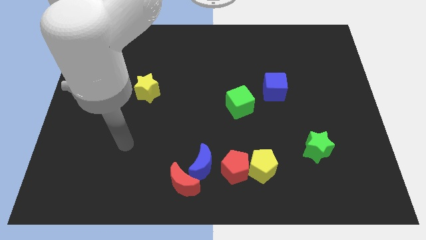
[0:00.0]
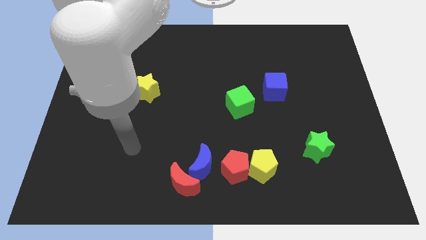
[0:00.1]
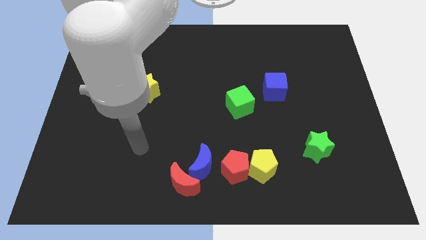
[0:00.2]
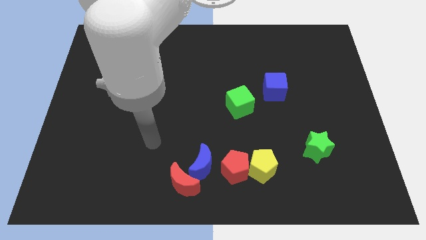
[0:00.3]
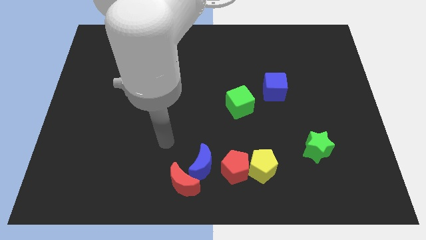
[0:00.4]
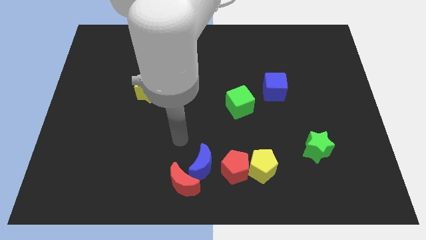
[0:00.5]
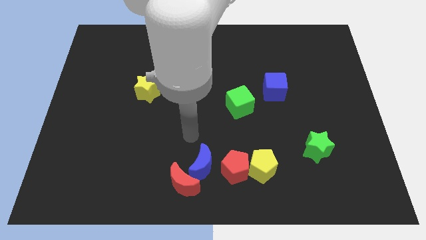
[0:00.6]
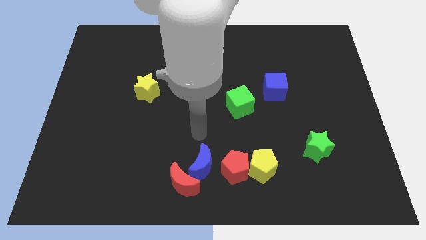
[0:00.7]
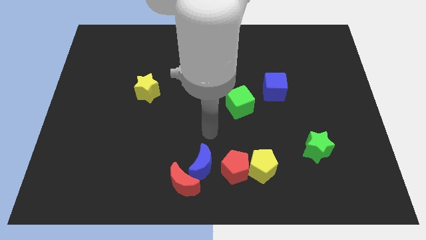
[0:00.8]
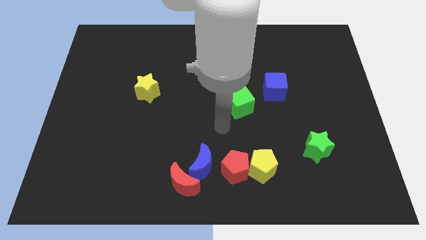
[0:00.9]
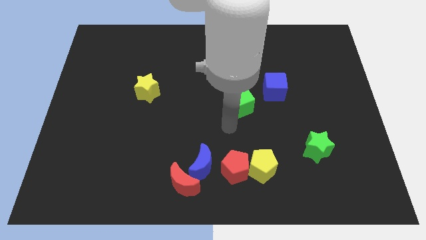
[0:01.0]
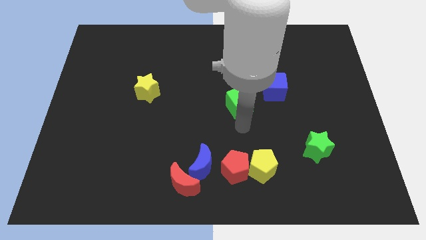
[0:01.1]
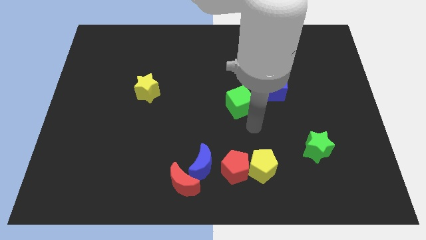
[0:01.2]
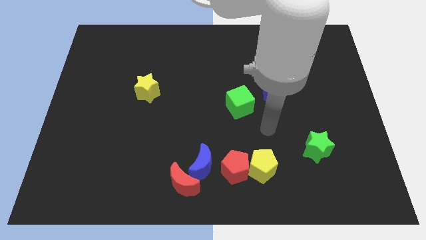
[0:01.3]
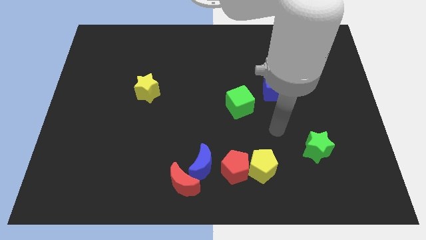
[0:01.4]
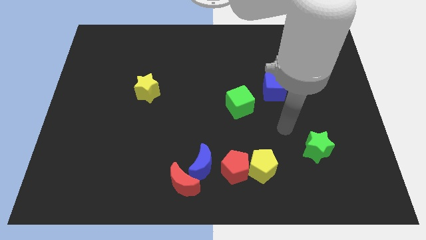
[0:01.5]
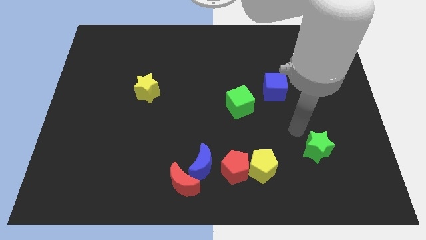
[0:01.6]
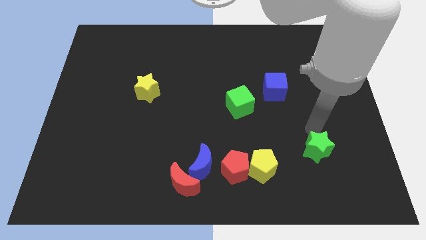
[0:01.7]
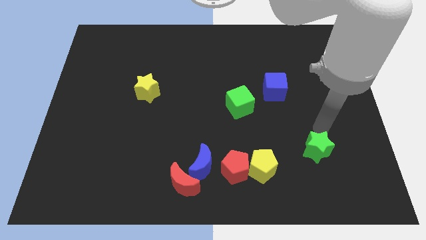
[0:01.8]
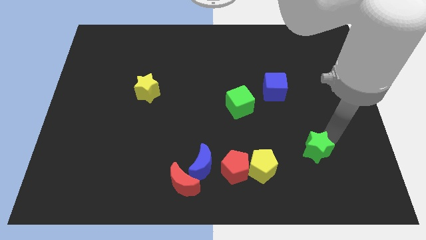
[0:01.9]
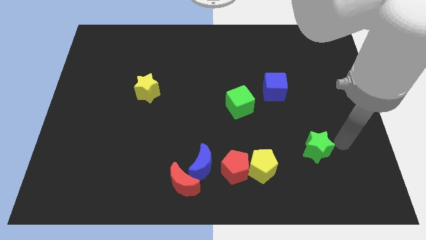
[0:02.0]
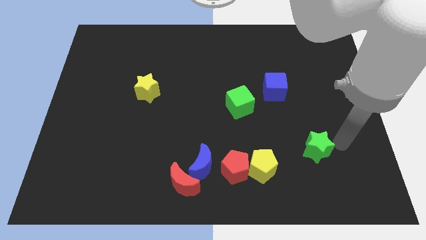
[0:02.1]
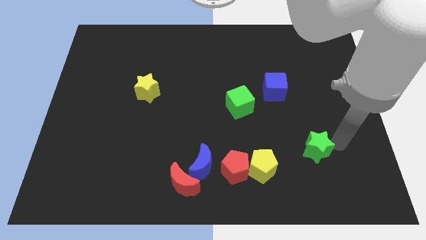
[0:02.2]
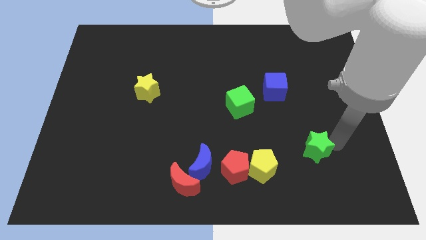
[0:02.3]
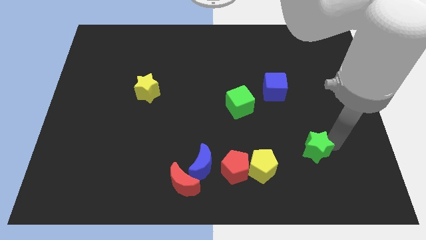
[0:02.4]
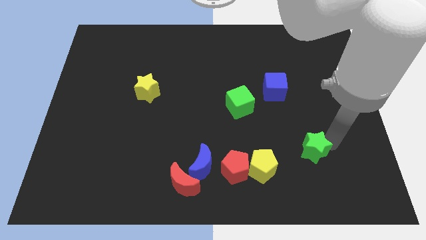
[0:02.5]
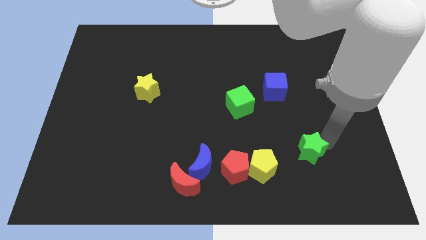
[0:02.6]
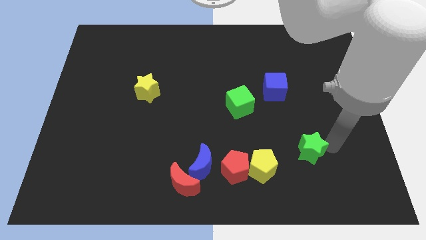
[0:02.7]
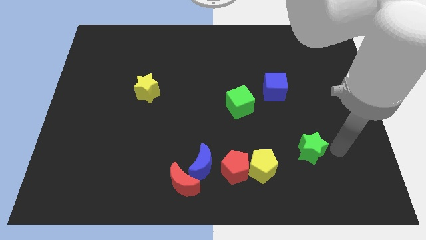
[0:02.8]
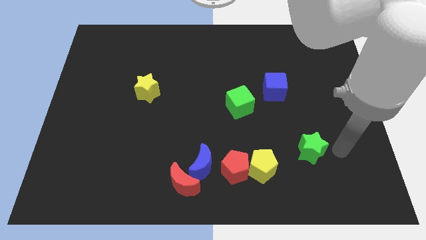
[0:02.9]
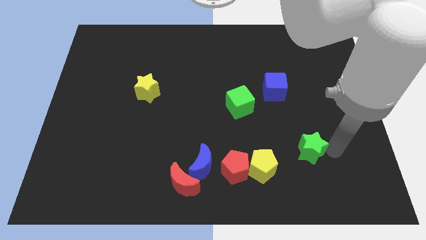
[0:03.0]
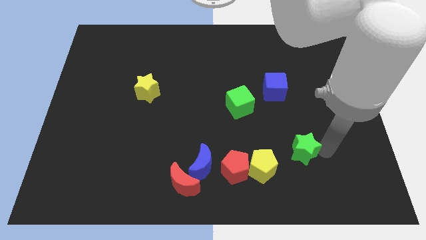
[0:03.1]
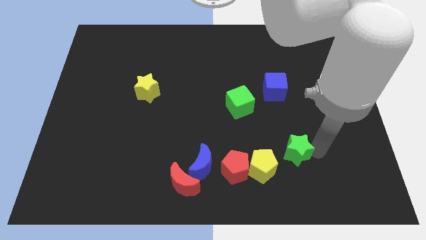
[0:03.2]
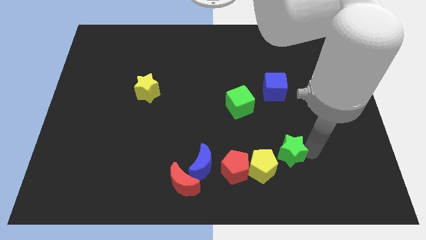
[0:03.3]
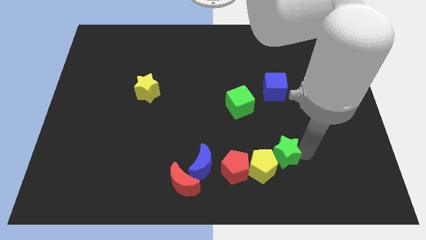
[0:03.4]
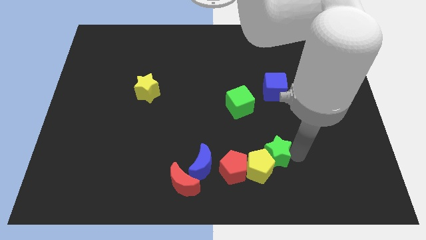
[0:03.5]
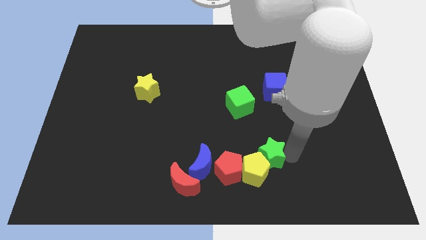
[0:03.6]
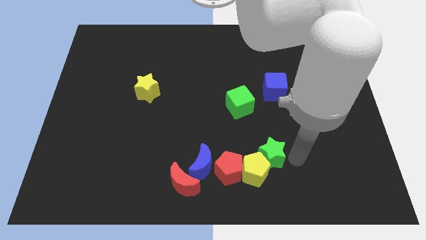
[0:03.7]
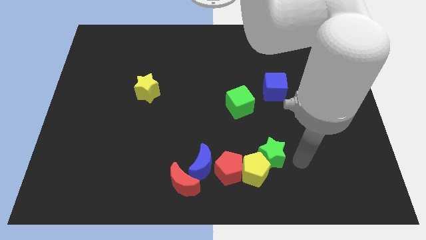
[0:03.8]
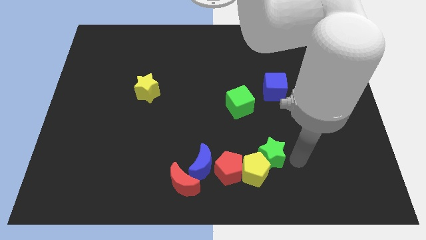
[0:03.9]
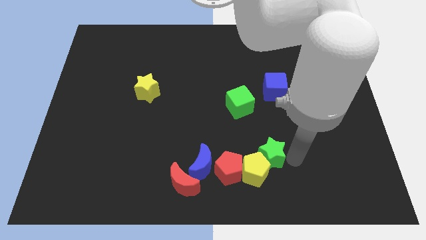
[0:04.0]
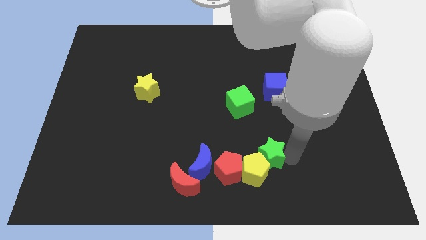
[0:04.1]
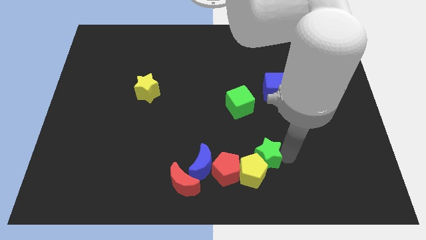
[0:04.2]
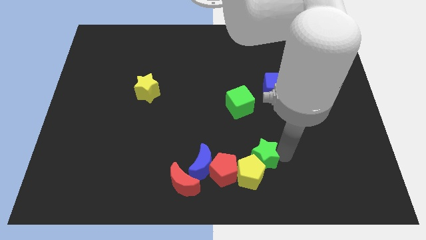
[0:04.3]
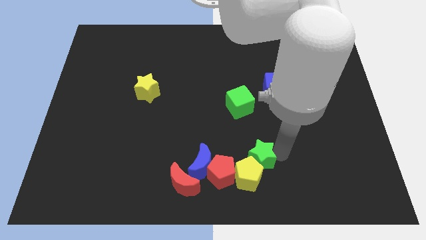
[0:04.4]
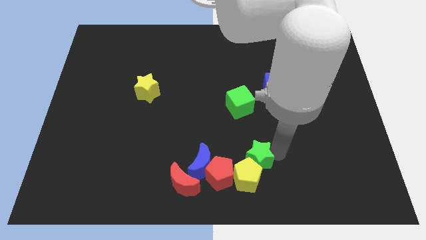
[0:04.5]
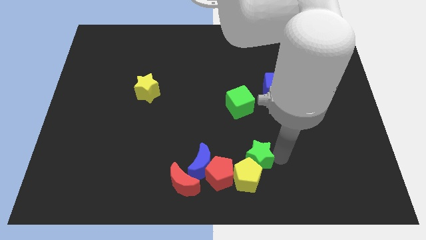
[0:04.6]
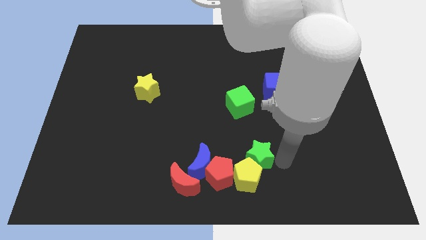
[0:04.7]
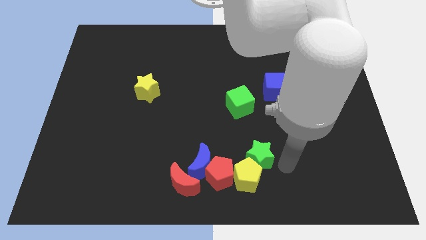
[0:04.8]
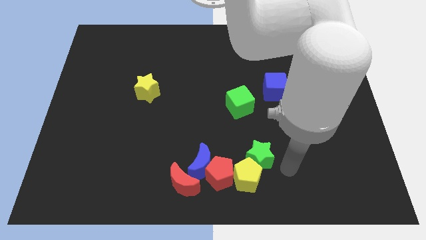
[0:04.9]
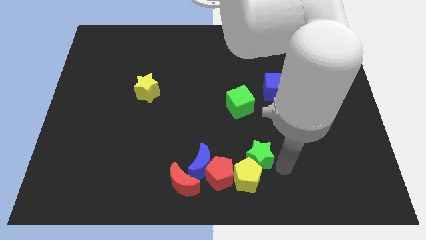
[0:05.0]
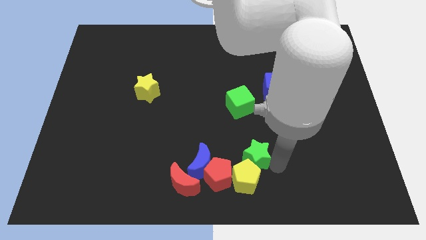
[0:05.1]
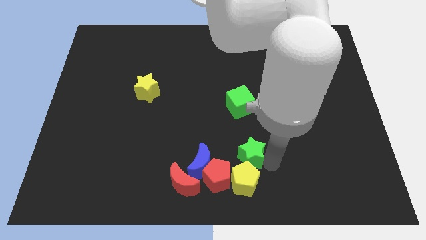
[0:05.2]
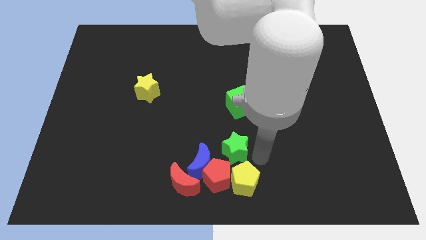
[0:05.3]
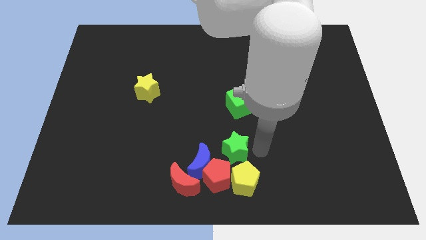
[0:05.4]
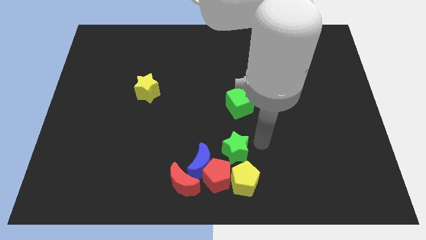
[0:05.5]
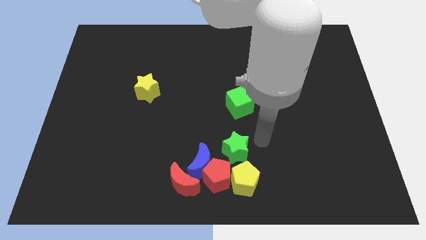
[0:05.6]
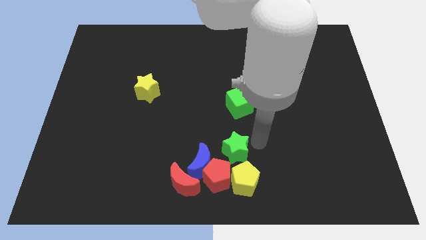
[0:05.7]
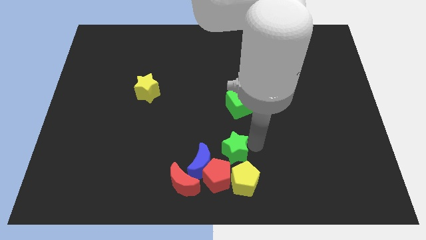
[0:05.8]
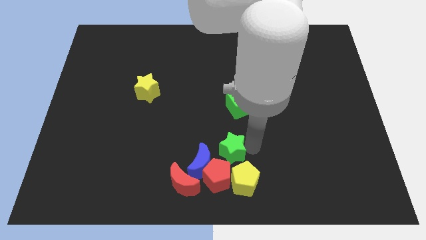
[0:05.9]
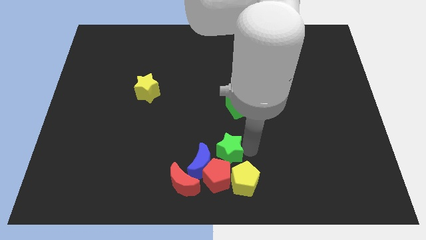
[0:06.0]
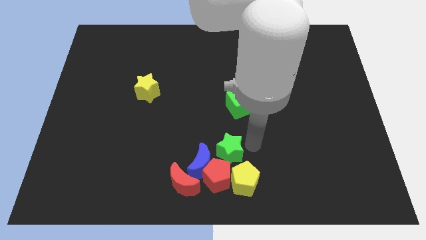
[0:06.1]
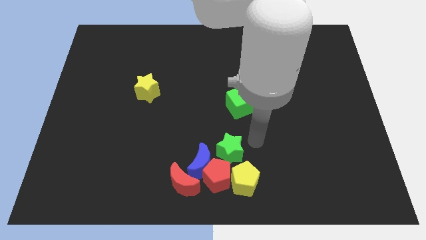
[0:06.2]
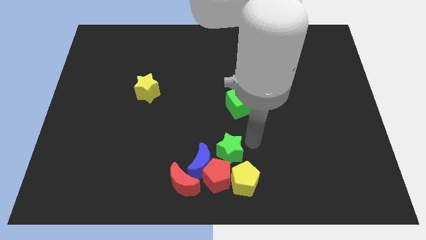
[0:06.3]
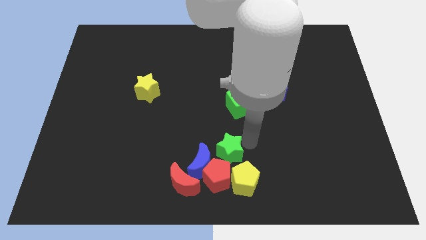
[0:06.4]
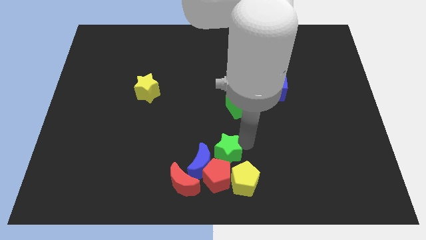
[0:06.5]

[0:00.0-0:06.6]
push the green star next to the blue moon
